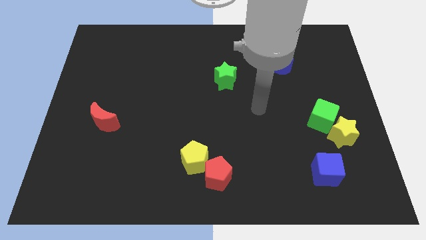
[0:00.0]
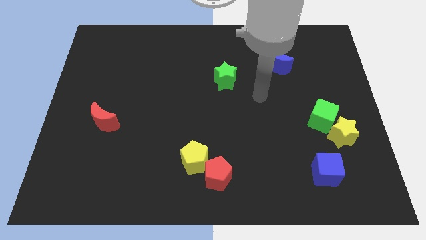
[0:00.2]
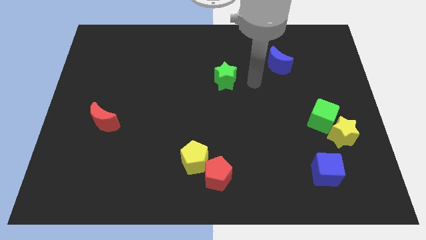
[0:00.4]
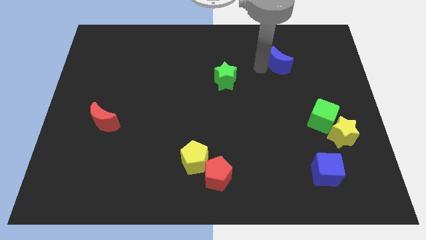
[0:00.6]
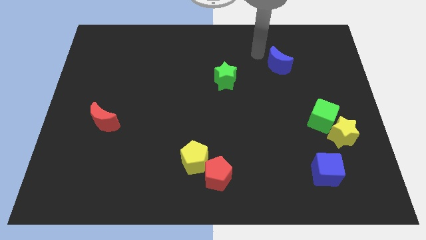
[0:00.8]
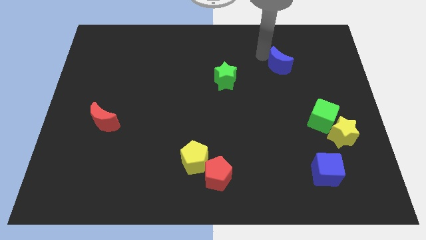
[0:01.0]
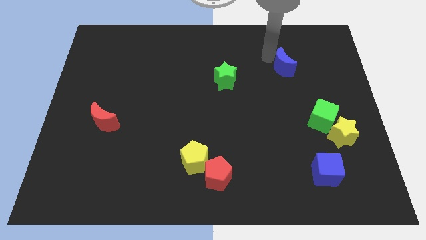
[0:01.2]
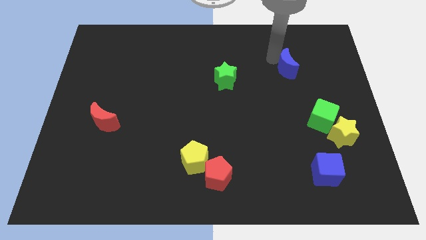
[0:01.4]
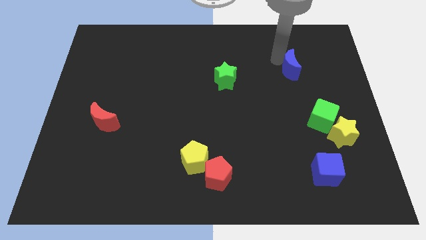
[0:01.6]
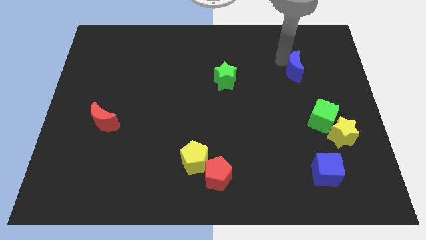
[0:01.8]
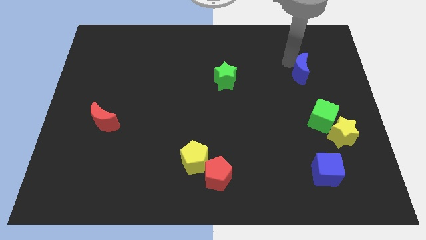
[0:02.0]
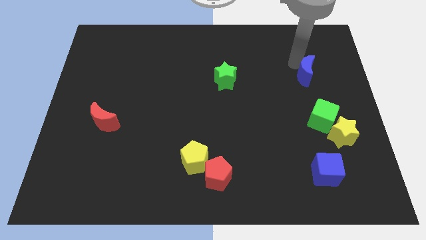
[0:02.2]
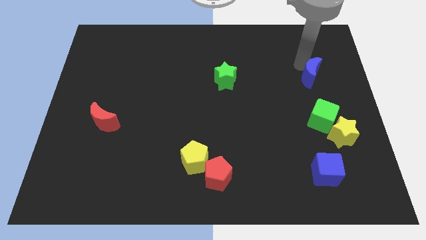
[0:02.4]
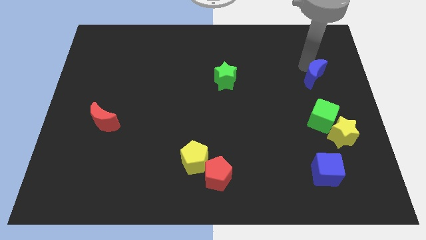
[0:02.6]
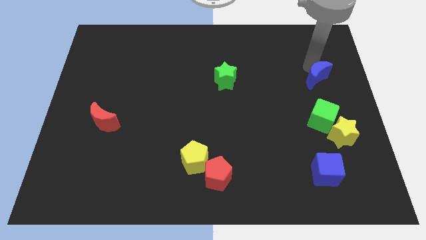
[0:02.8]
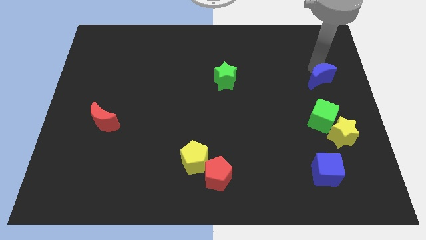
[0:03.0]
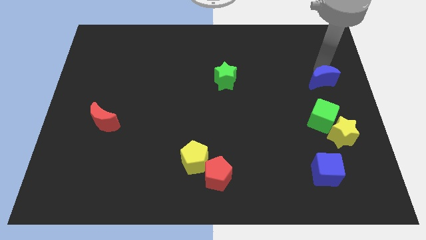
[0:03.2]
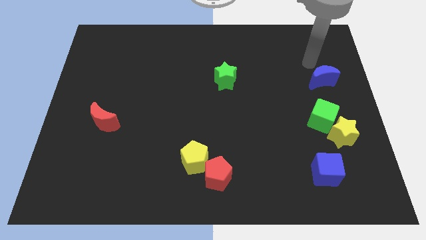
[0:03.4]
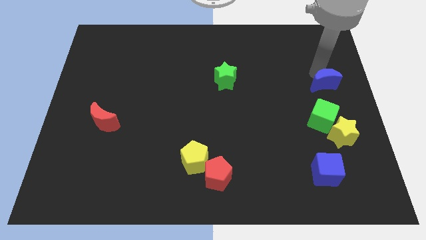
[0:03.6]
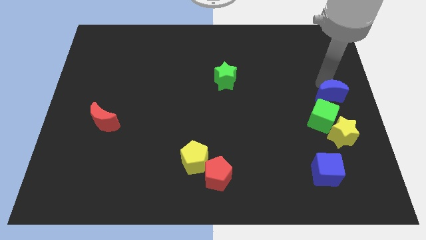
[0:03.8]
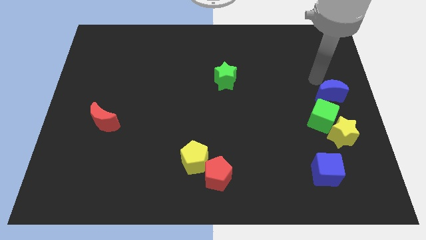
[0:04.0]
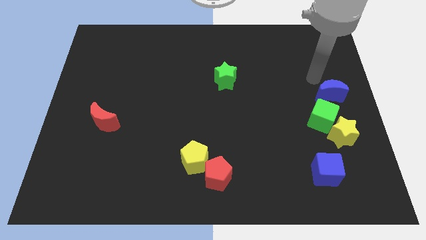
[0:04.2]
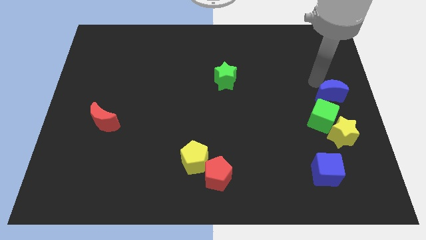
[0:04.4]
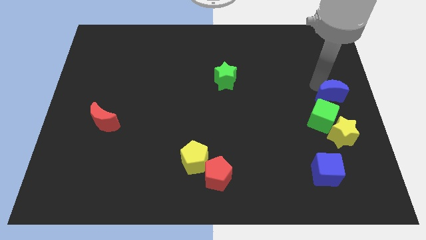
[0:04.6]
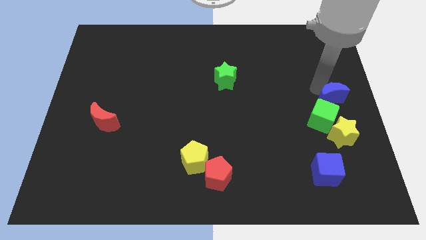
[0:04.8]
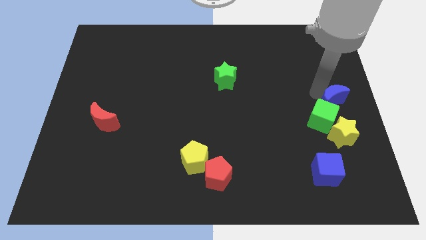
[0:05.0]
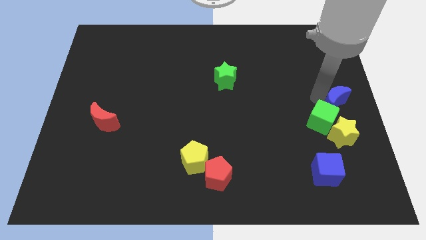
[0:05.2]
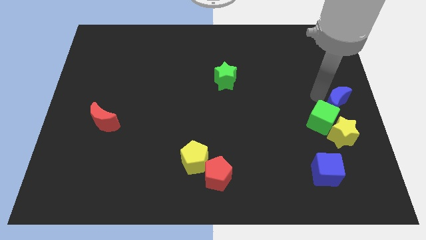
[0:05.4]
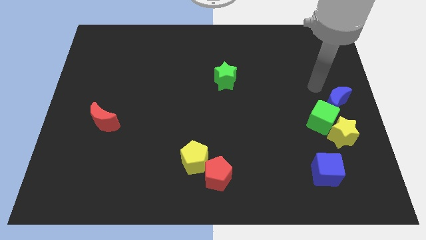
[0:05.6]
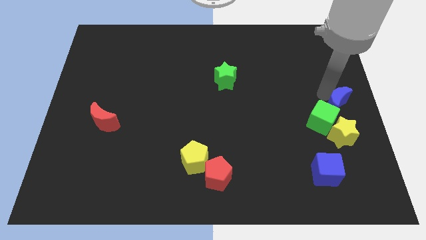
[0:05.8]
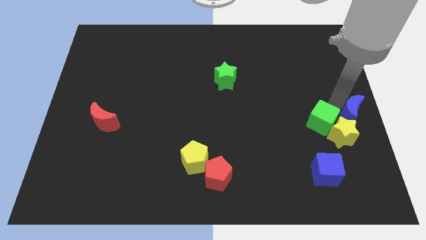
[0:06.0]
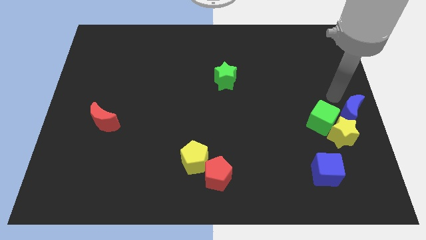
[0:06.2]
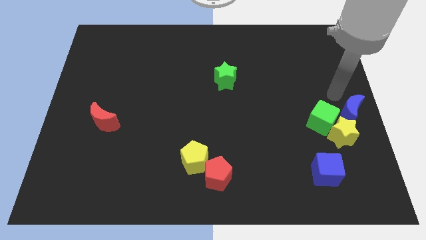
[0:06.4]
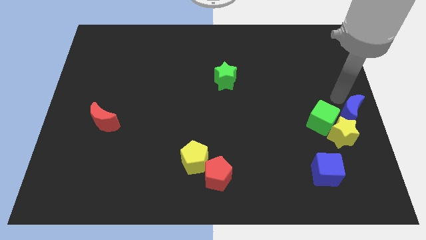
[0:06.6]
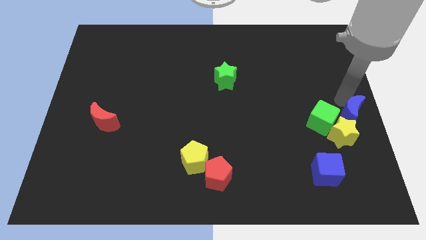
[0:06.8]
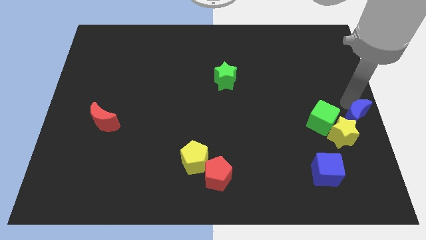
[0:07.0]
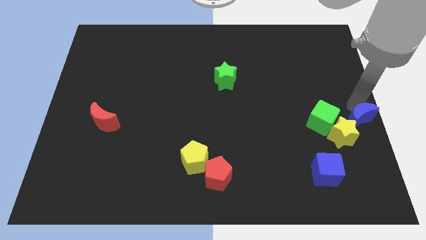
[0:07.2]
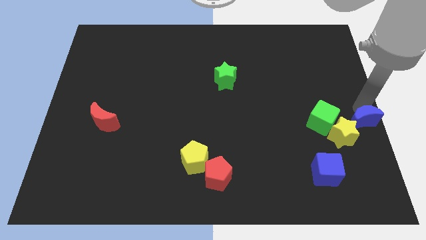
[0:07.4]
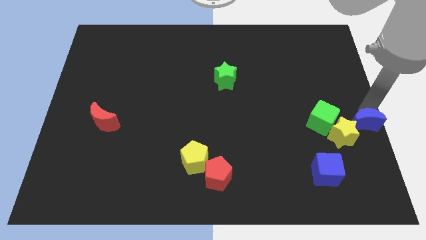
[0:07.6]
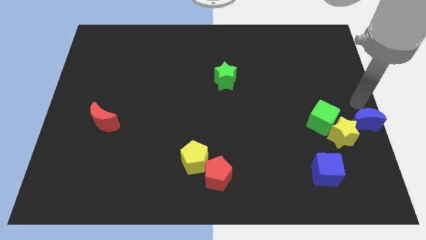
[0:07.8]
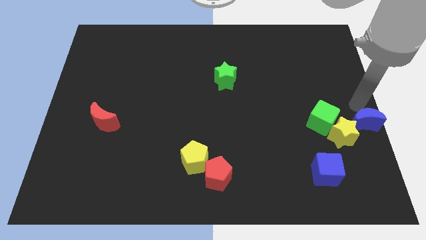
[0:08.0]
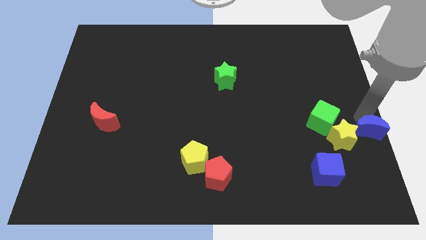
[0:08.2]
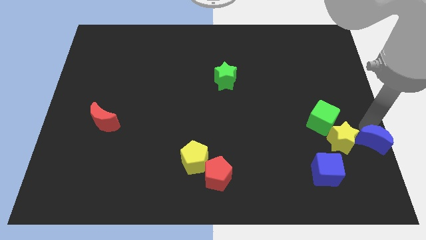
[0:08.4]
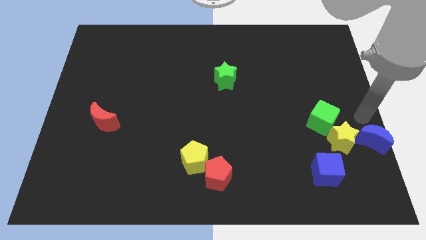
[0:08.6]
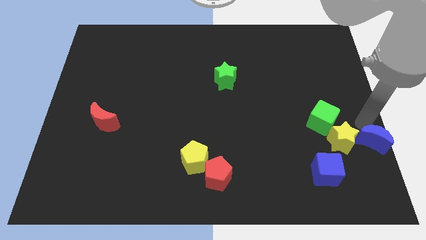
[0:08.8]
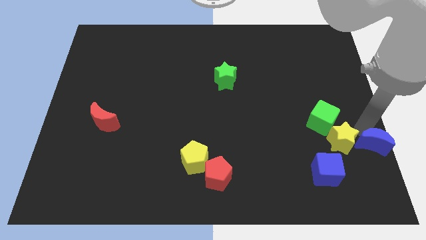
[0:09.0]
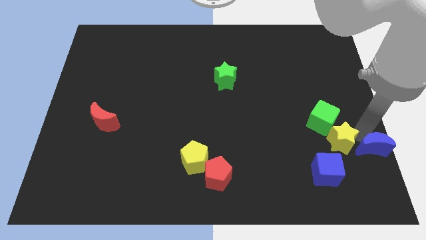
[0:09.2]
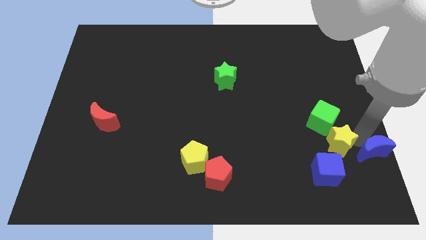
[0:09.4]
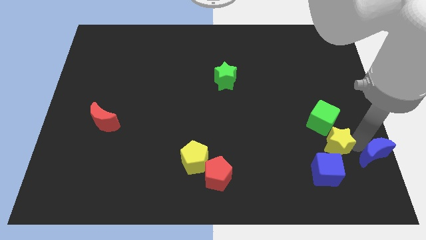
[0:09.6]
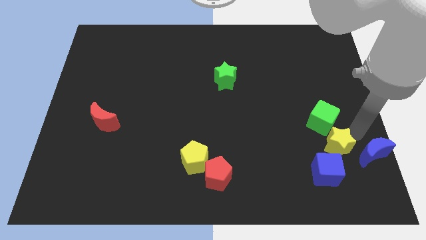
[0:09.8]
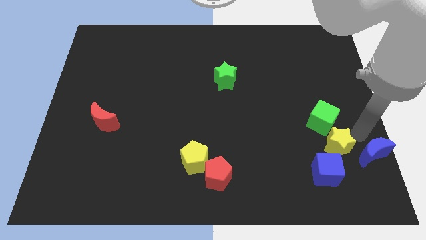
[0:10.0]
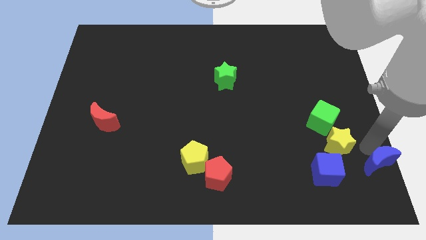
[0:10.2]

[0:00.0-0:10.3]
push the blue moon to the lower right corner

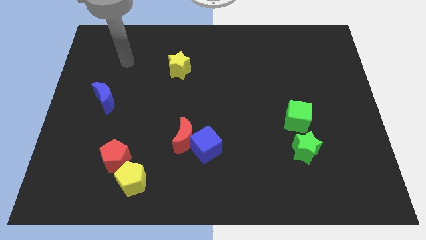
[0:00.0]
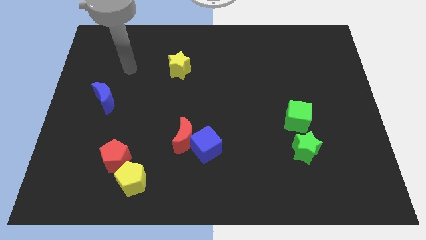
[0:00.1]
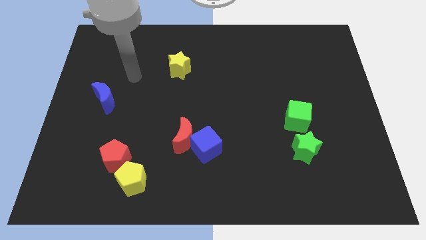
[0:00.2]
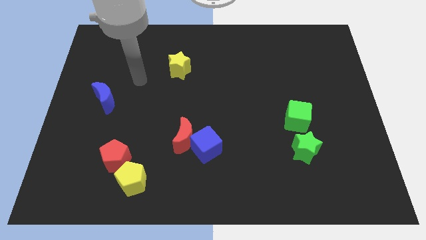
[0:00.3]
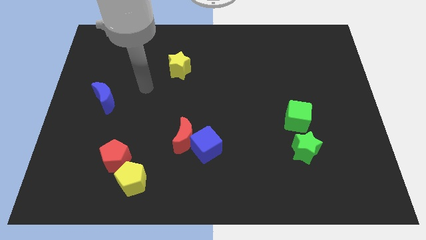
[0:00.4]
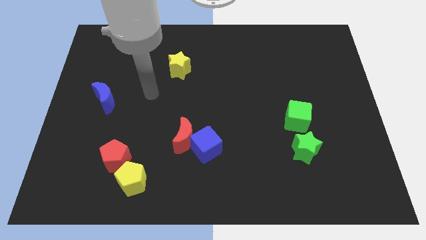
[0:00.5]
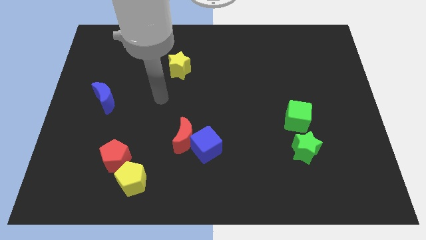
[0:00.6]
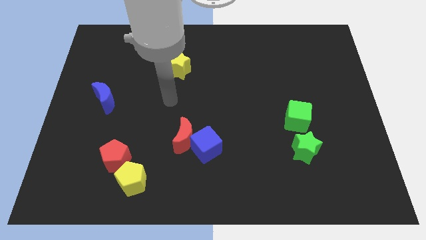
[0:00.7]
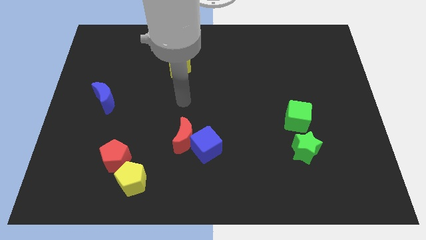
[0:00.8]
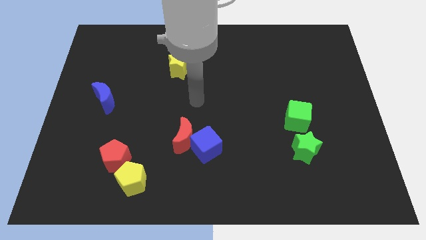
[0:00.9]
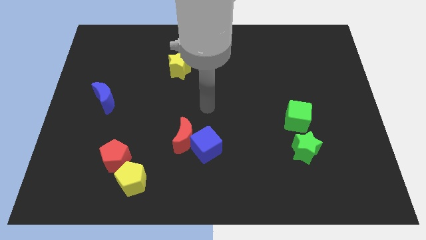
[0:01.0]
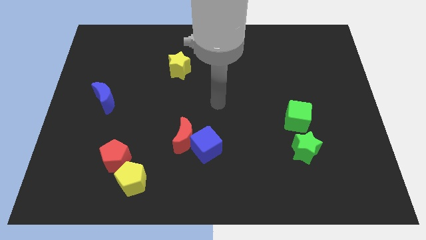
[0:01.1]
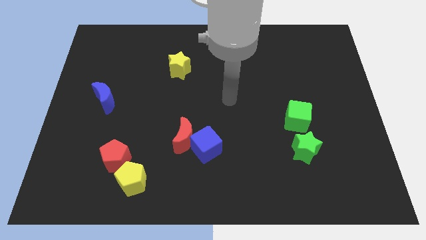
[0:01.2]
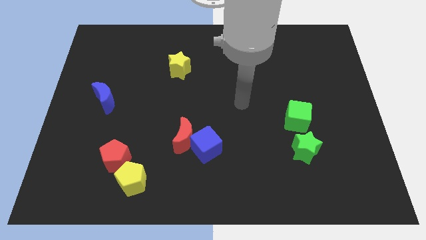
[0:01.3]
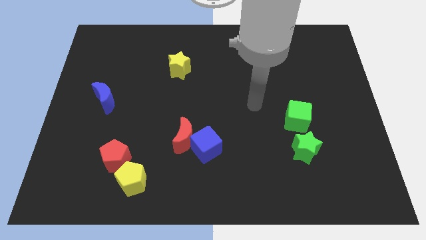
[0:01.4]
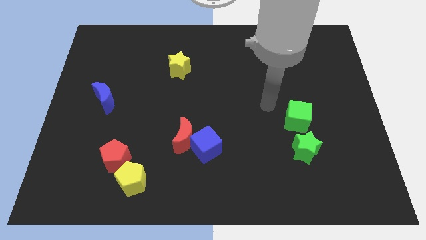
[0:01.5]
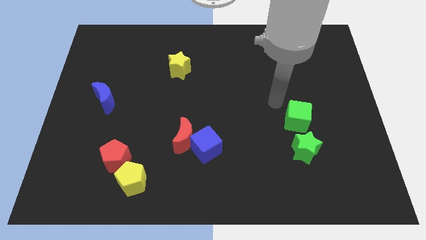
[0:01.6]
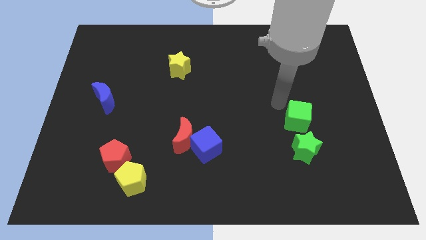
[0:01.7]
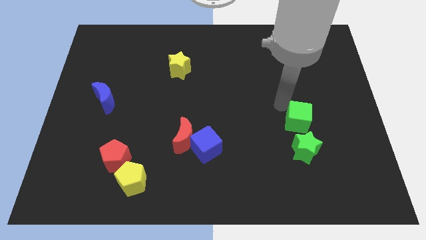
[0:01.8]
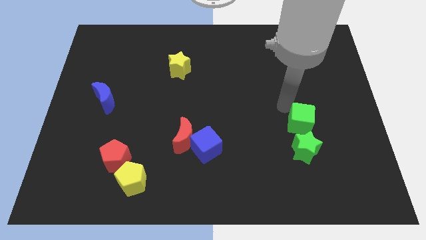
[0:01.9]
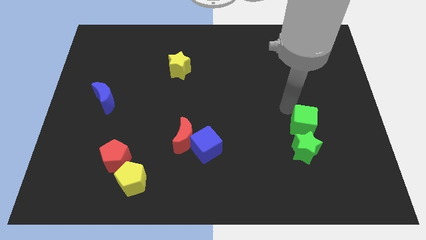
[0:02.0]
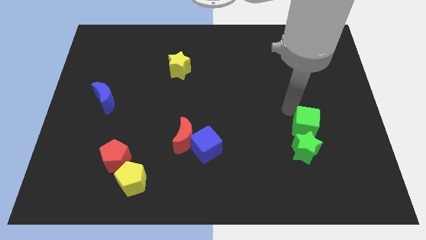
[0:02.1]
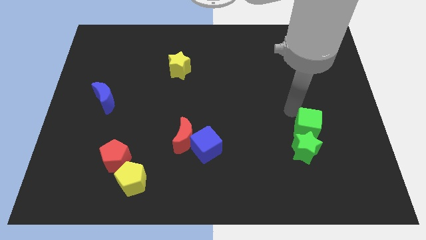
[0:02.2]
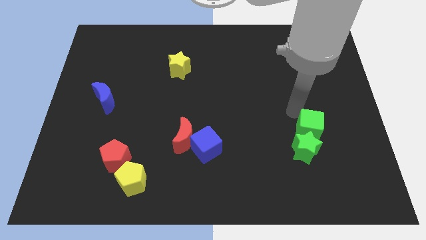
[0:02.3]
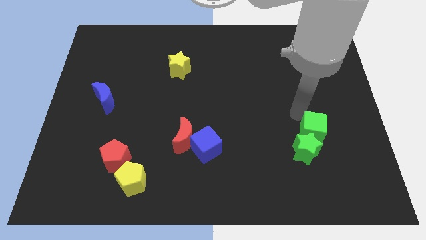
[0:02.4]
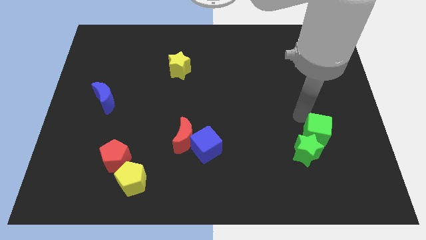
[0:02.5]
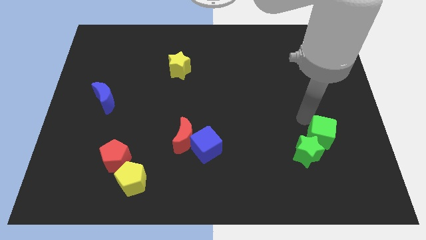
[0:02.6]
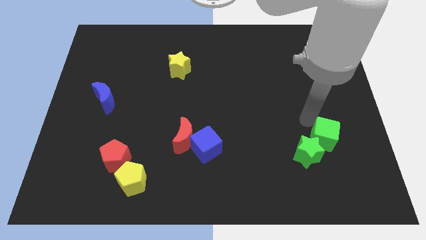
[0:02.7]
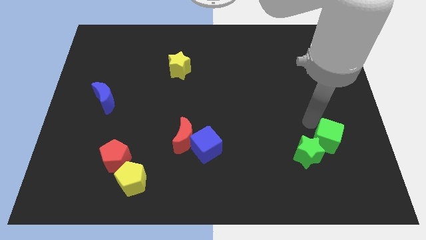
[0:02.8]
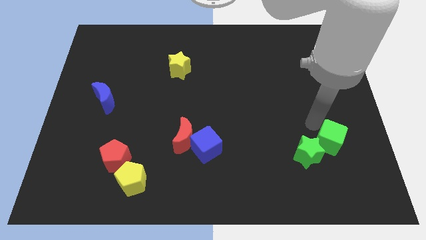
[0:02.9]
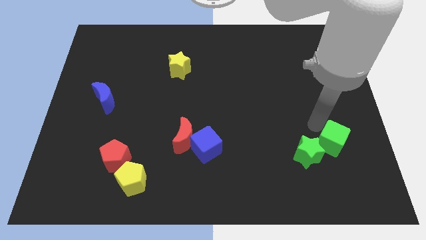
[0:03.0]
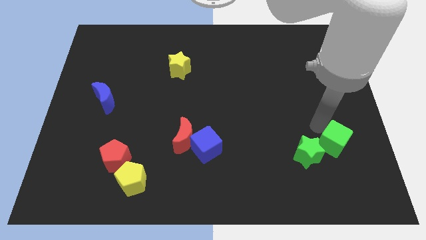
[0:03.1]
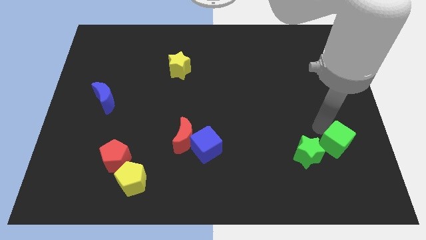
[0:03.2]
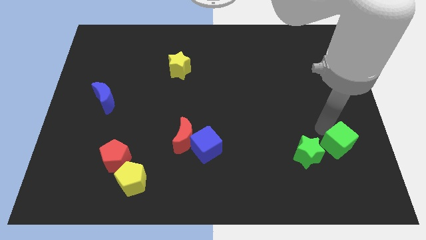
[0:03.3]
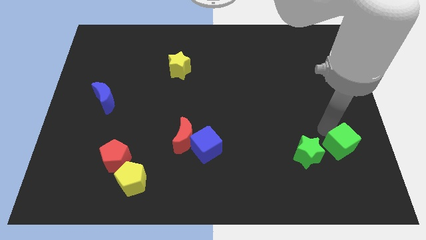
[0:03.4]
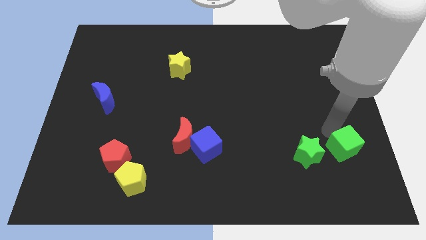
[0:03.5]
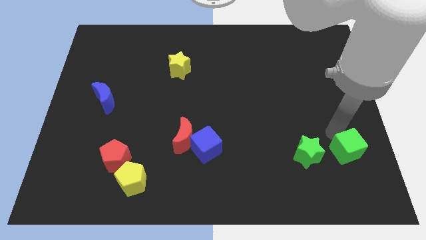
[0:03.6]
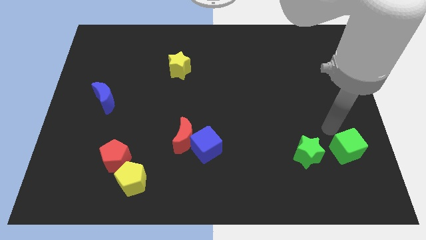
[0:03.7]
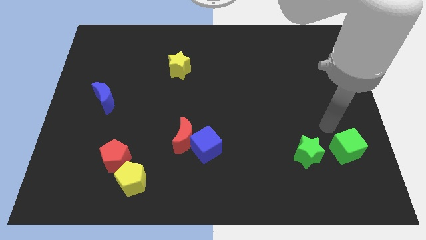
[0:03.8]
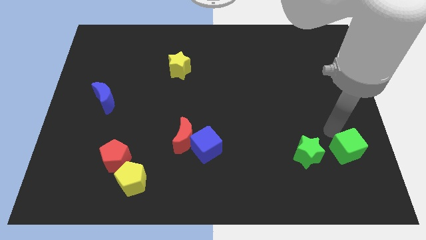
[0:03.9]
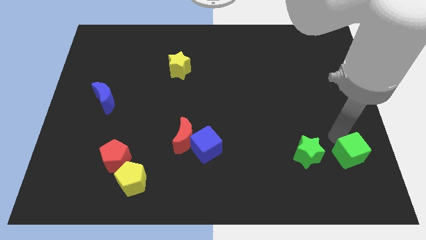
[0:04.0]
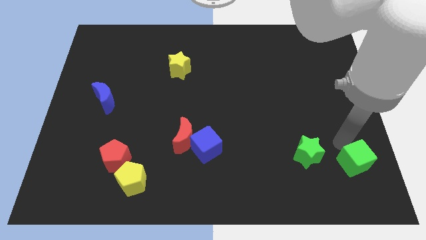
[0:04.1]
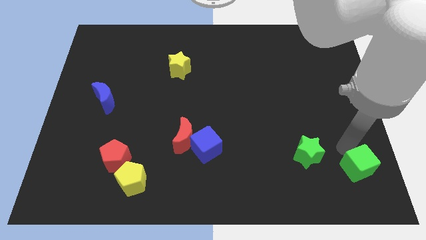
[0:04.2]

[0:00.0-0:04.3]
slide the green cube to the bottom right
